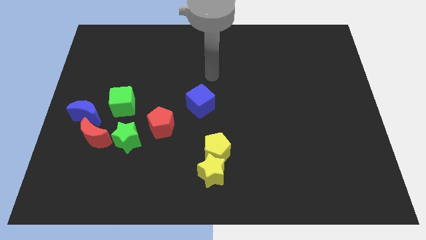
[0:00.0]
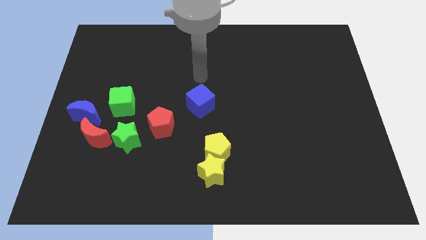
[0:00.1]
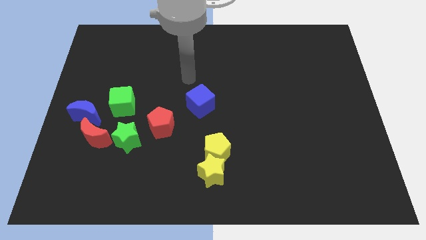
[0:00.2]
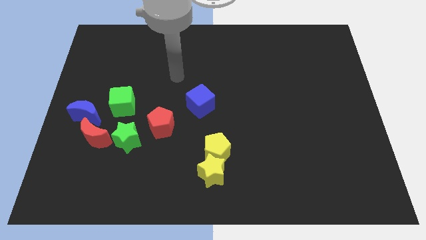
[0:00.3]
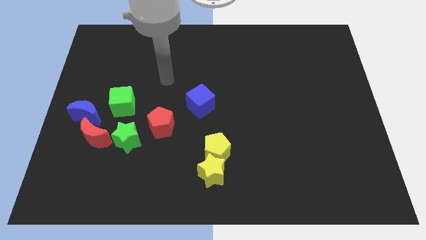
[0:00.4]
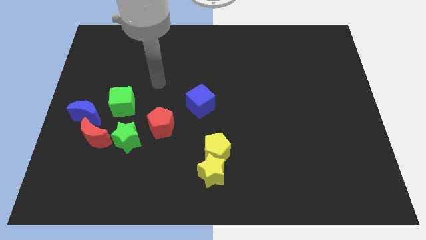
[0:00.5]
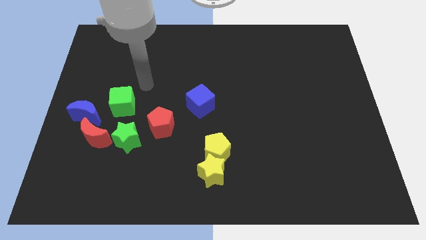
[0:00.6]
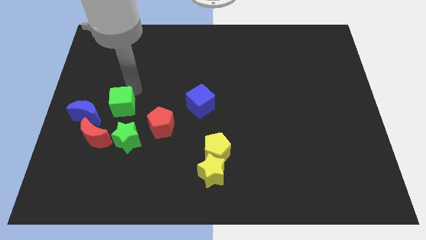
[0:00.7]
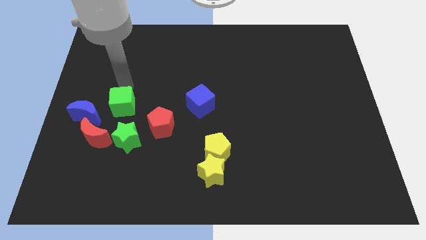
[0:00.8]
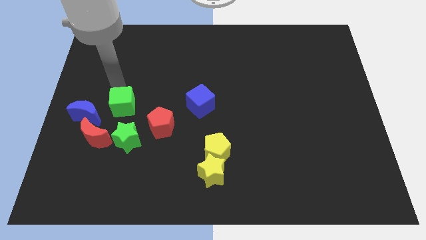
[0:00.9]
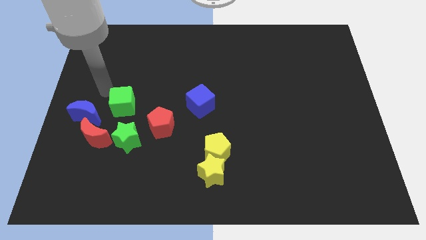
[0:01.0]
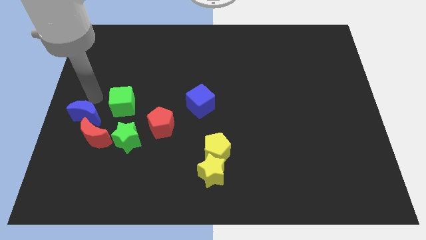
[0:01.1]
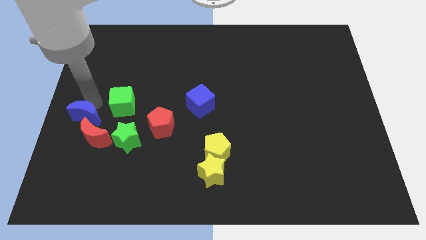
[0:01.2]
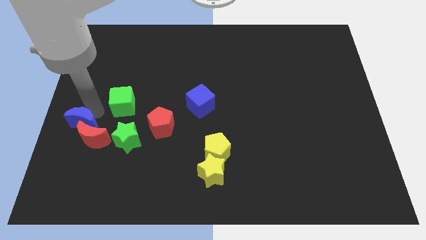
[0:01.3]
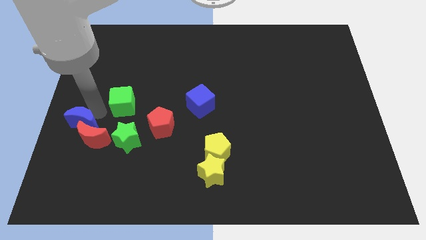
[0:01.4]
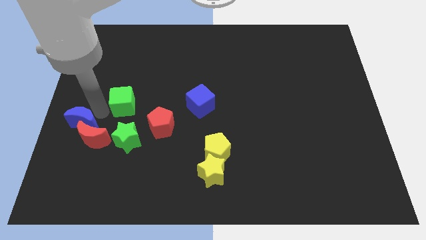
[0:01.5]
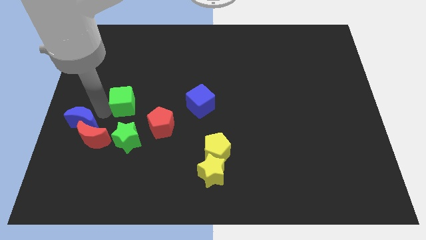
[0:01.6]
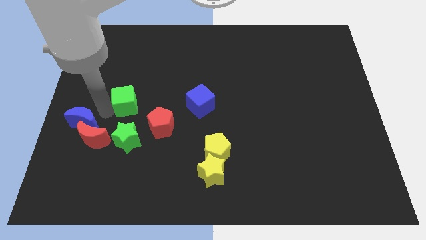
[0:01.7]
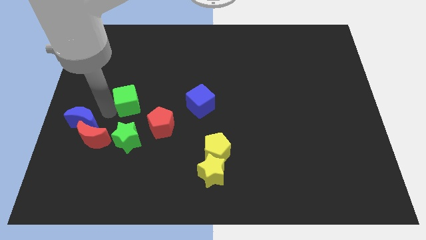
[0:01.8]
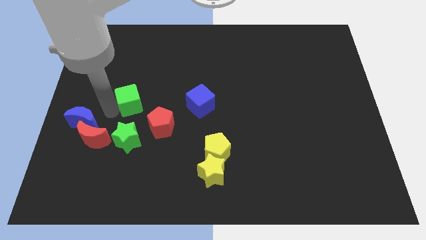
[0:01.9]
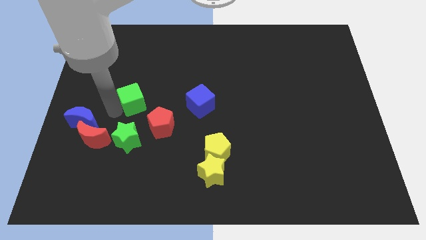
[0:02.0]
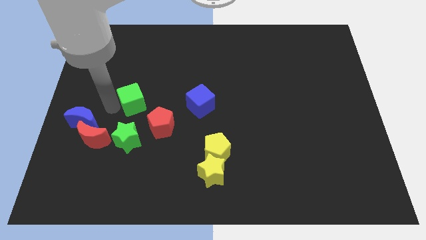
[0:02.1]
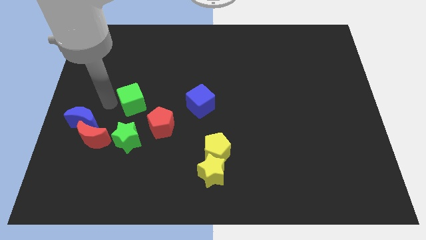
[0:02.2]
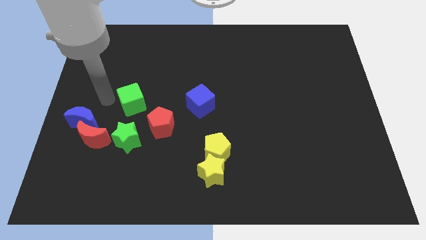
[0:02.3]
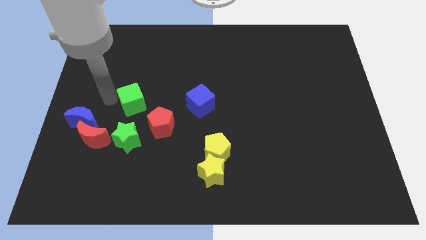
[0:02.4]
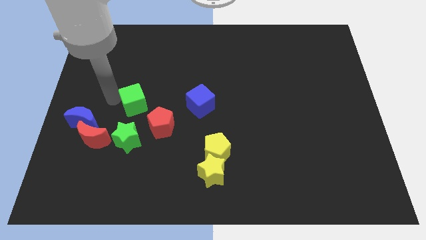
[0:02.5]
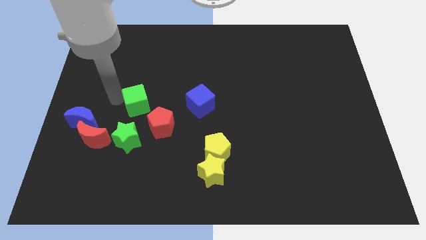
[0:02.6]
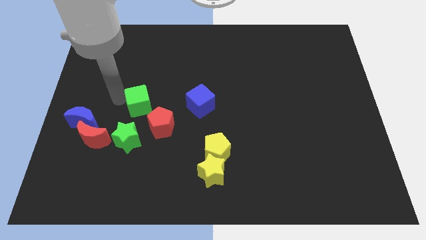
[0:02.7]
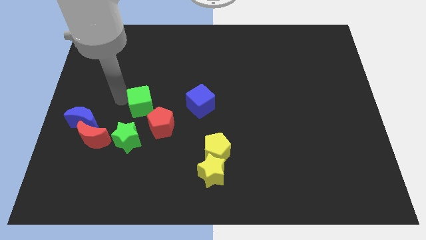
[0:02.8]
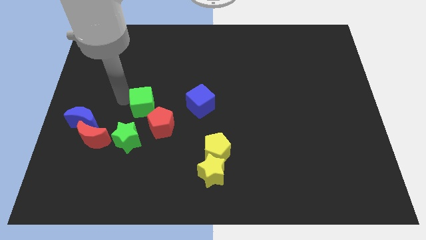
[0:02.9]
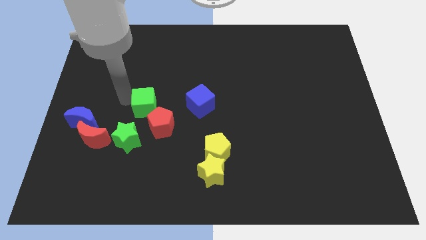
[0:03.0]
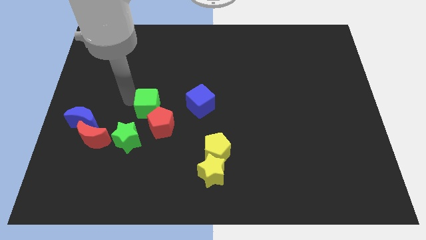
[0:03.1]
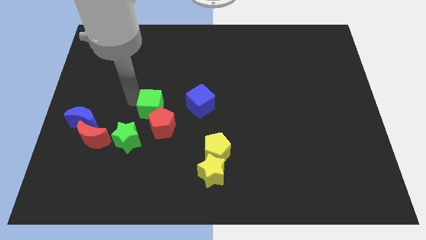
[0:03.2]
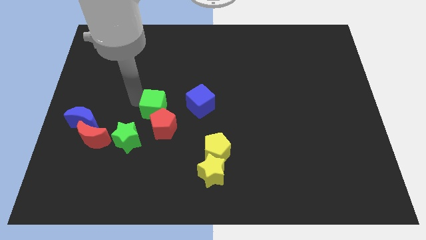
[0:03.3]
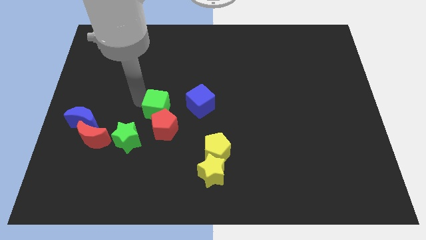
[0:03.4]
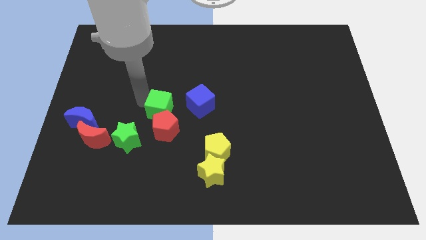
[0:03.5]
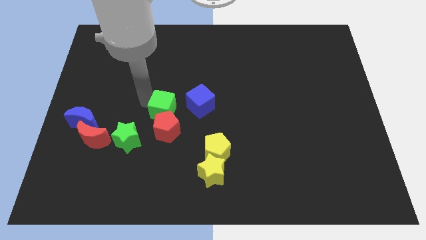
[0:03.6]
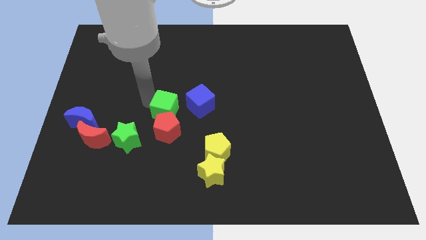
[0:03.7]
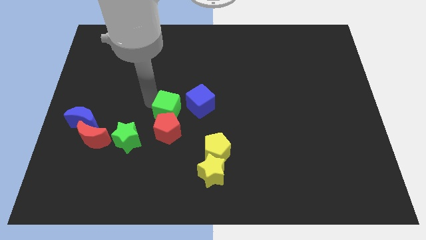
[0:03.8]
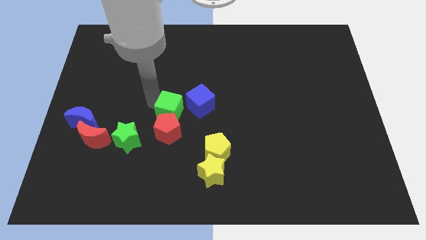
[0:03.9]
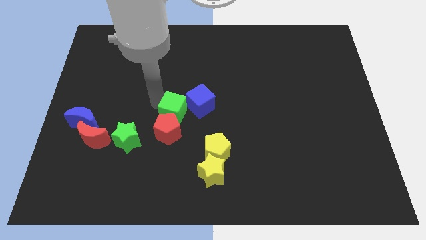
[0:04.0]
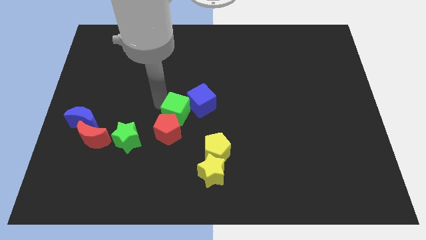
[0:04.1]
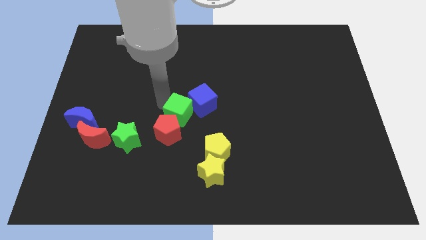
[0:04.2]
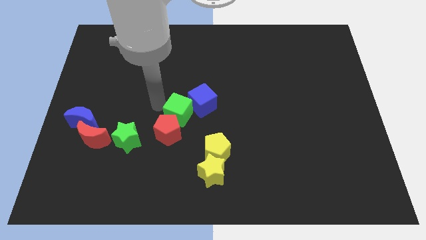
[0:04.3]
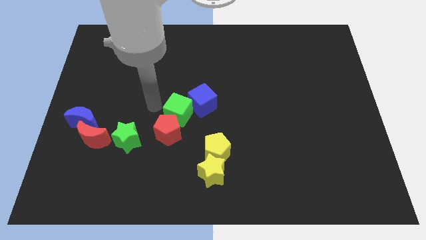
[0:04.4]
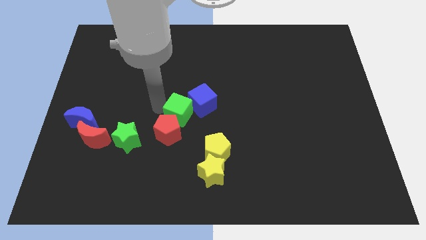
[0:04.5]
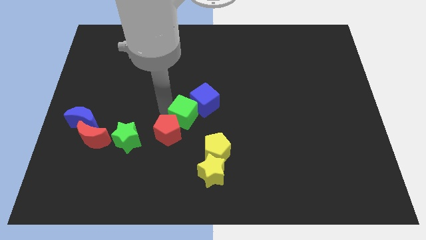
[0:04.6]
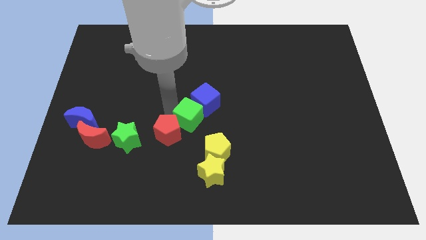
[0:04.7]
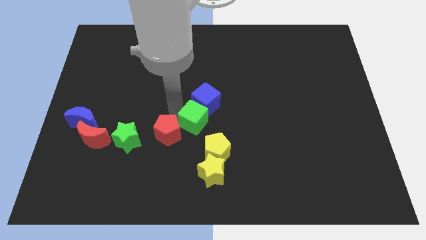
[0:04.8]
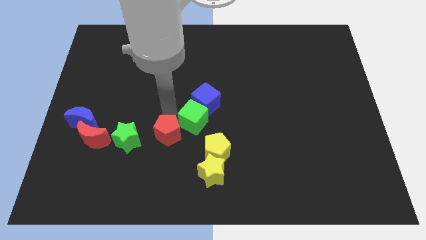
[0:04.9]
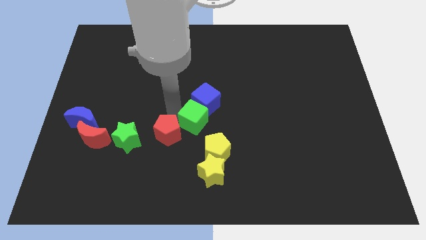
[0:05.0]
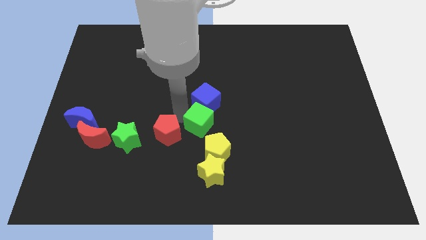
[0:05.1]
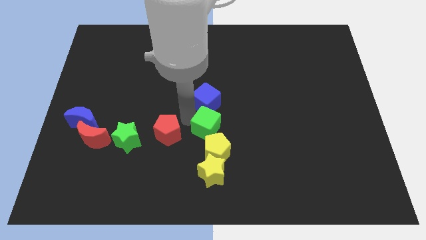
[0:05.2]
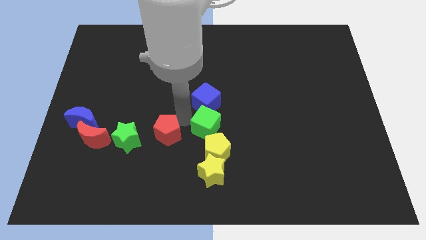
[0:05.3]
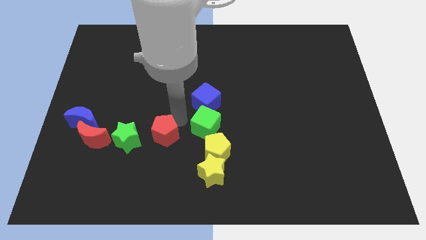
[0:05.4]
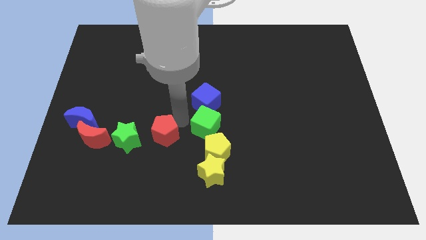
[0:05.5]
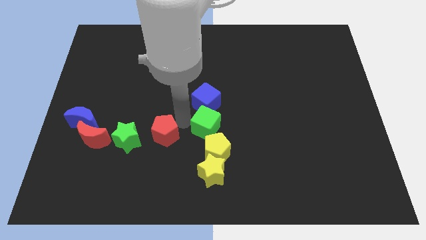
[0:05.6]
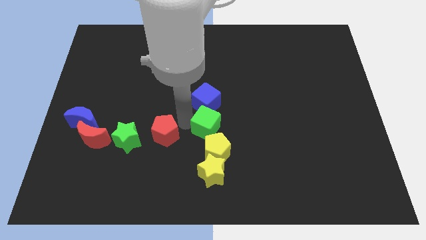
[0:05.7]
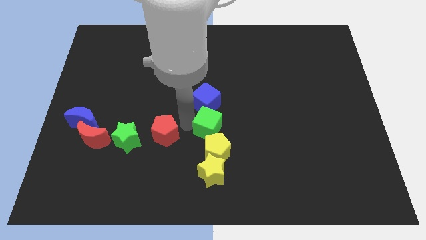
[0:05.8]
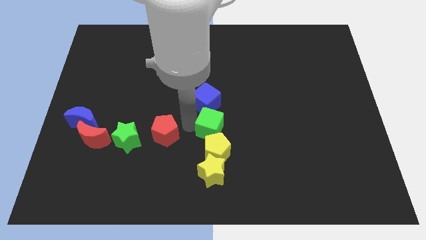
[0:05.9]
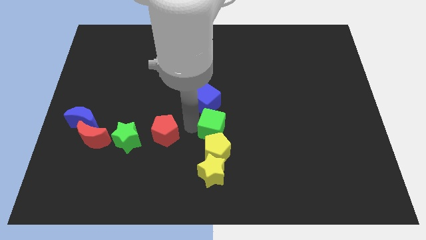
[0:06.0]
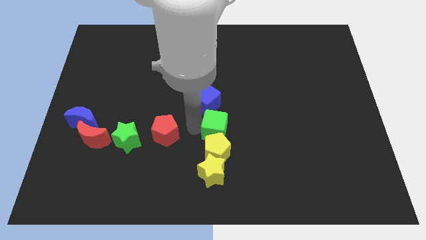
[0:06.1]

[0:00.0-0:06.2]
put the green cube to the top right side of the yellow pentagon

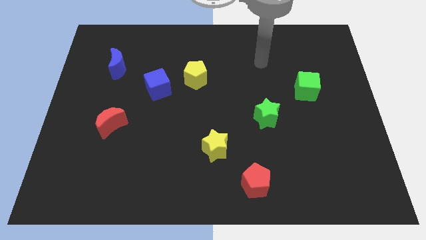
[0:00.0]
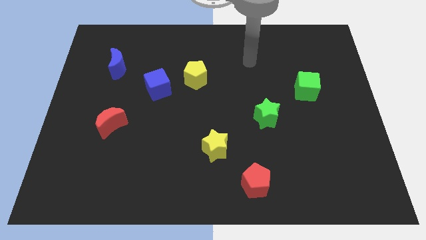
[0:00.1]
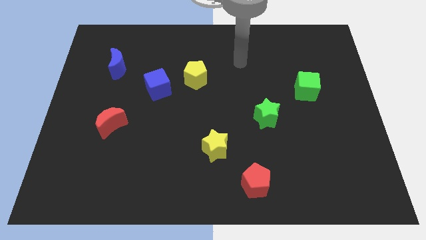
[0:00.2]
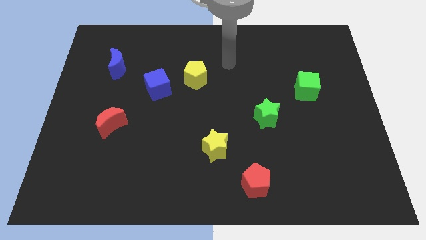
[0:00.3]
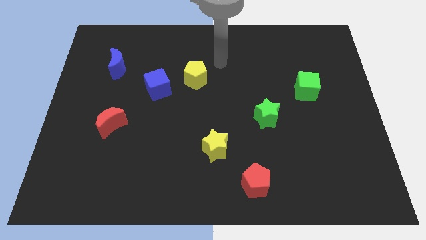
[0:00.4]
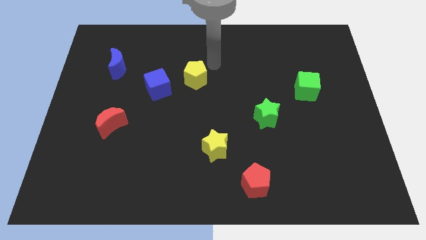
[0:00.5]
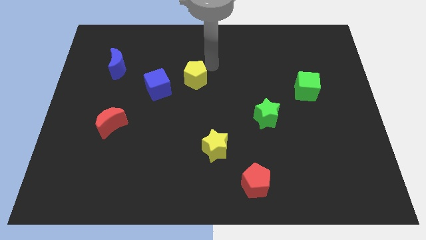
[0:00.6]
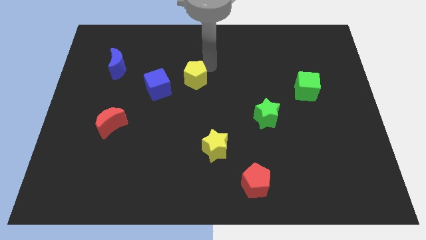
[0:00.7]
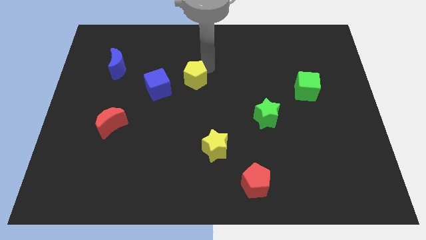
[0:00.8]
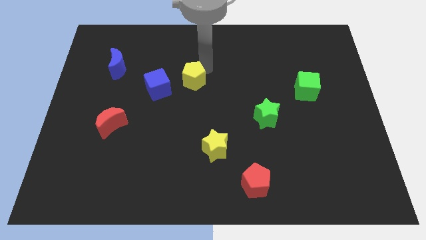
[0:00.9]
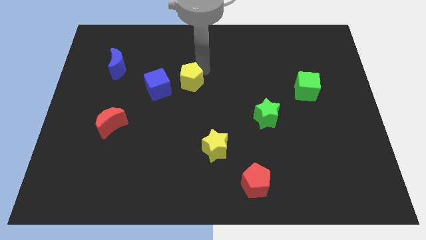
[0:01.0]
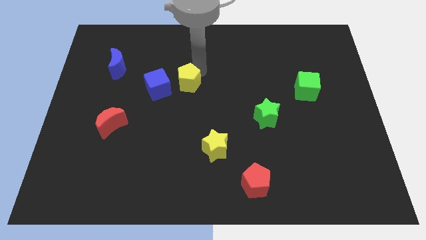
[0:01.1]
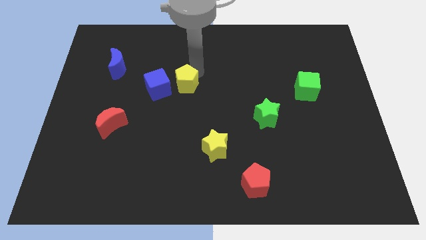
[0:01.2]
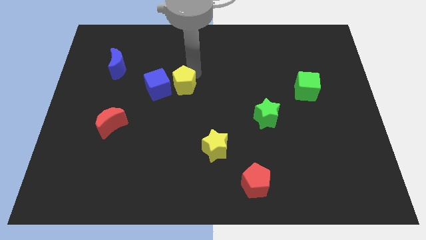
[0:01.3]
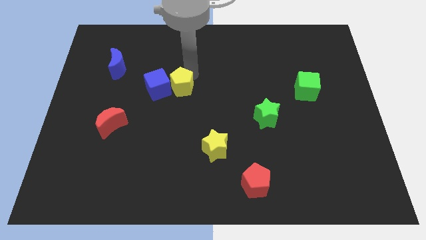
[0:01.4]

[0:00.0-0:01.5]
put the yellow pentagon to the bottom right of the blue cube
